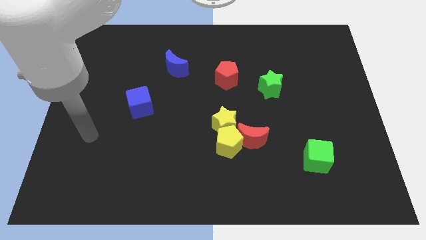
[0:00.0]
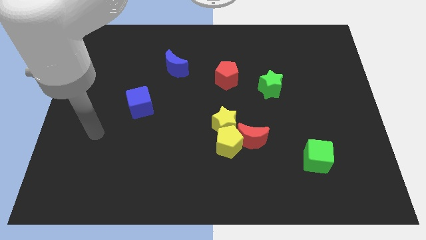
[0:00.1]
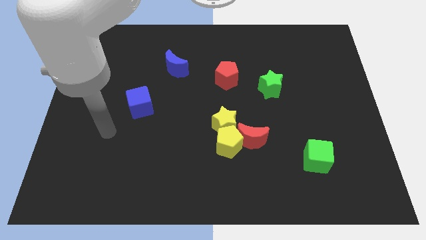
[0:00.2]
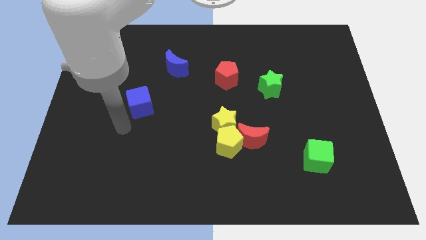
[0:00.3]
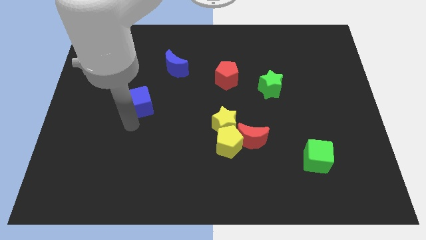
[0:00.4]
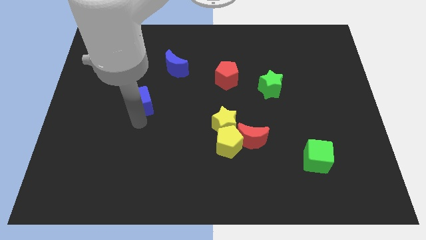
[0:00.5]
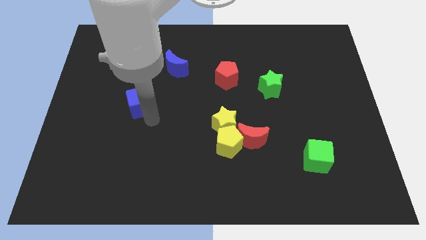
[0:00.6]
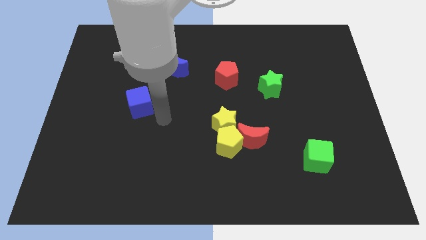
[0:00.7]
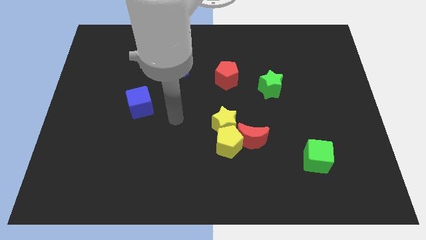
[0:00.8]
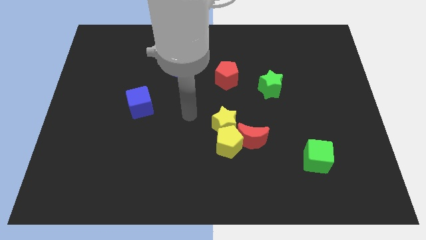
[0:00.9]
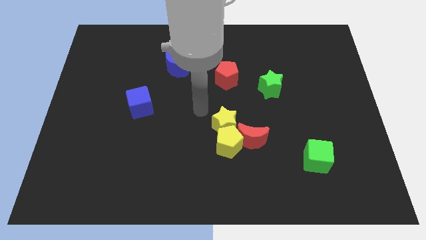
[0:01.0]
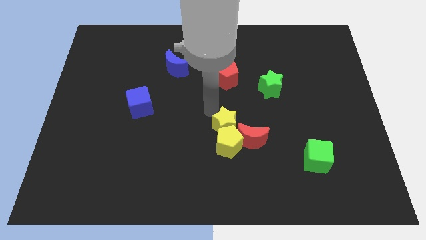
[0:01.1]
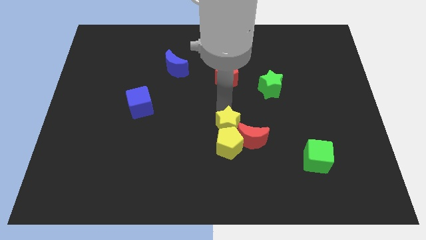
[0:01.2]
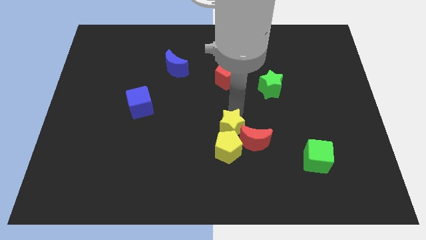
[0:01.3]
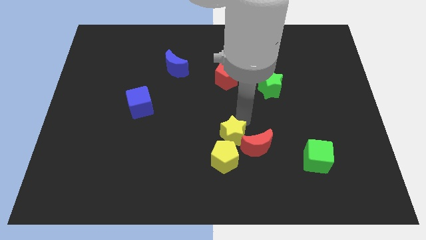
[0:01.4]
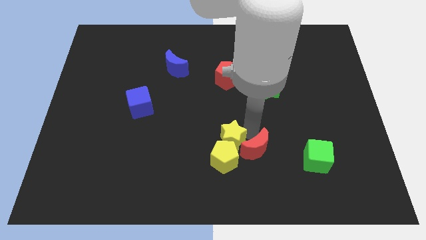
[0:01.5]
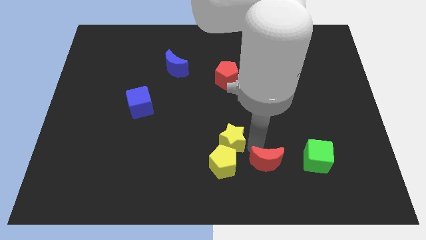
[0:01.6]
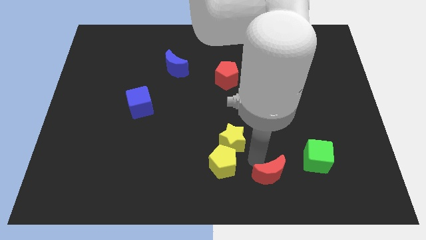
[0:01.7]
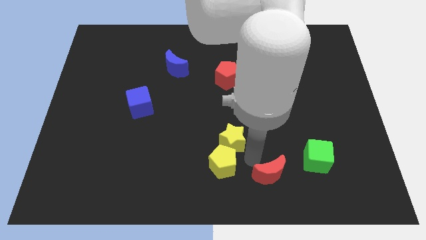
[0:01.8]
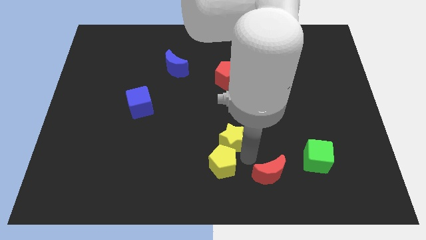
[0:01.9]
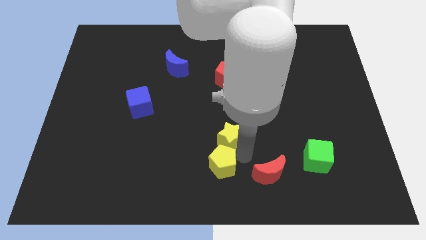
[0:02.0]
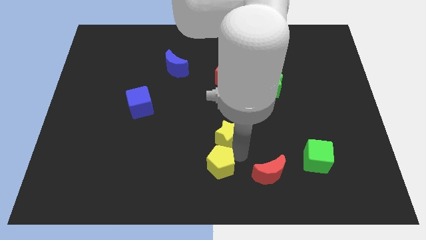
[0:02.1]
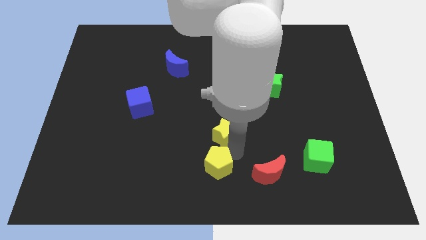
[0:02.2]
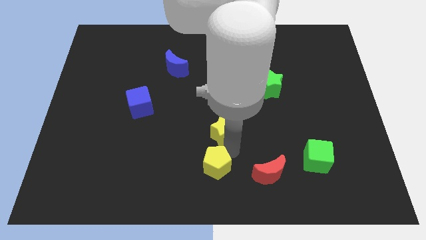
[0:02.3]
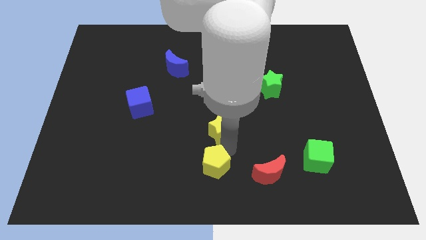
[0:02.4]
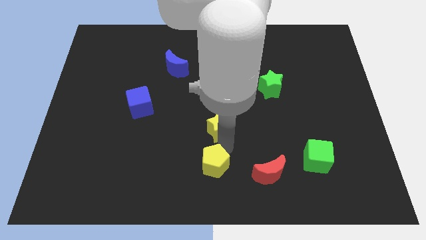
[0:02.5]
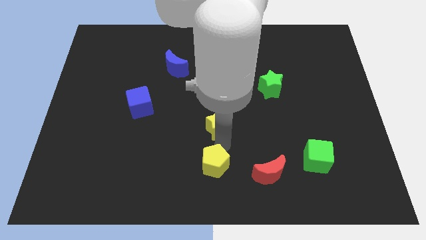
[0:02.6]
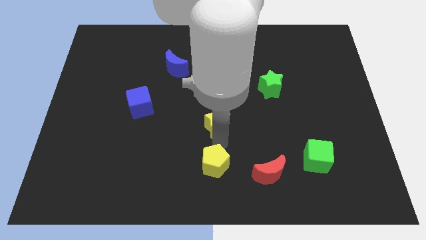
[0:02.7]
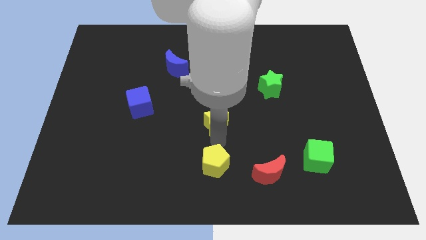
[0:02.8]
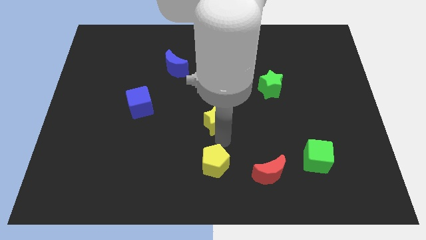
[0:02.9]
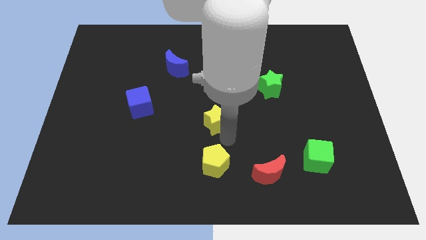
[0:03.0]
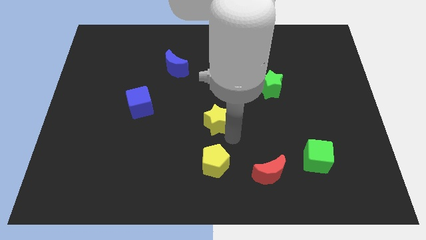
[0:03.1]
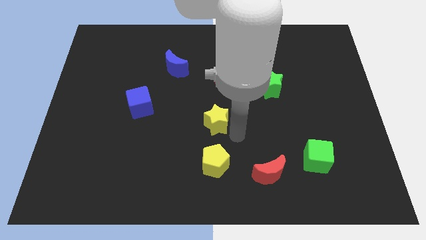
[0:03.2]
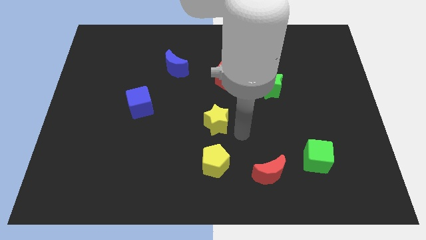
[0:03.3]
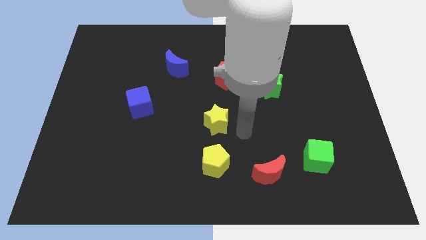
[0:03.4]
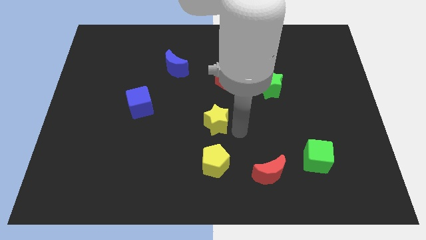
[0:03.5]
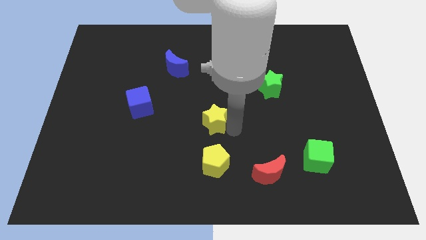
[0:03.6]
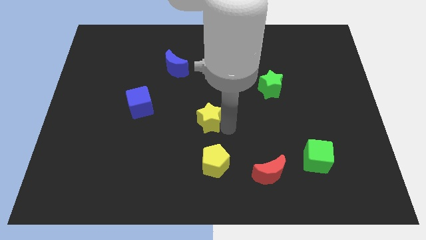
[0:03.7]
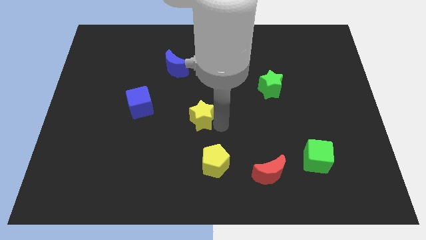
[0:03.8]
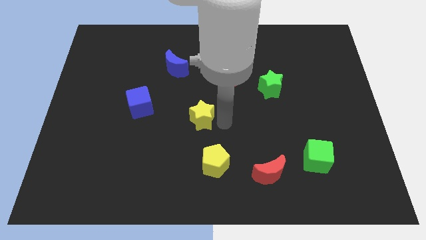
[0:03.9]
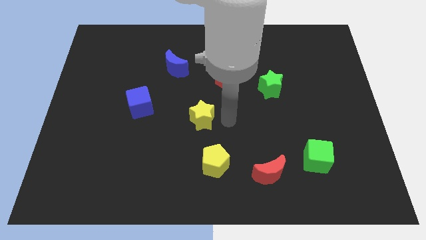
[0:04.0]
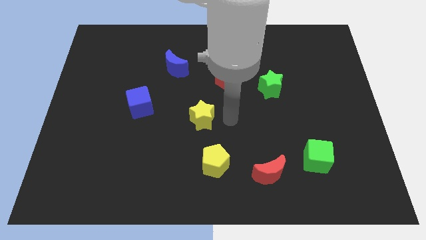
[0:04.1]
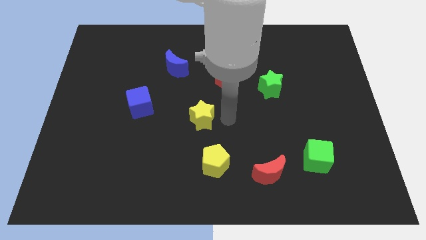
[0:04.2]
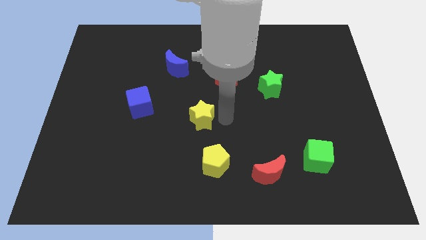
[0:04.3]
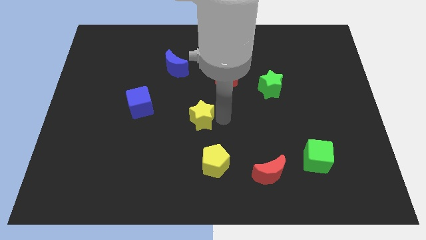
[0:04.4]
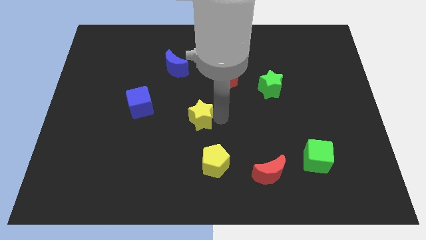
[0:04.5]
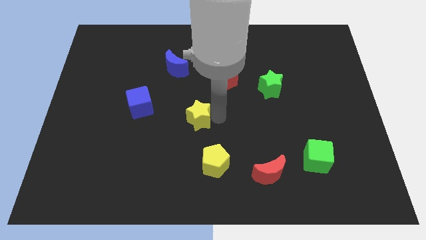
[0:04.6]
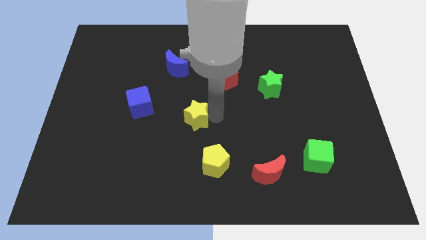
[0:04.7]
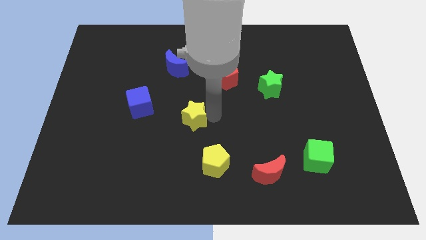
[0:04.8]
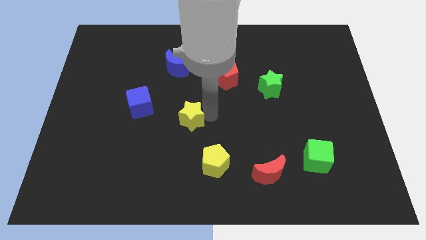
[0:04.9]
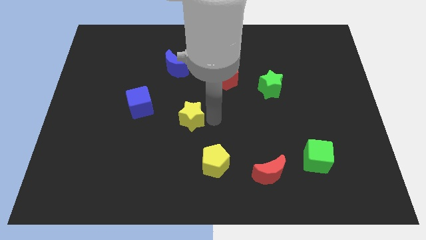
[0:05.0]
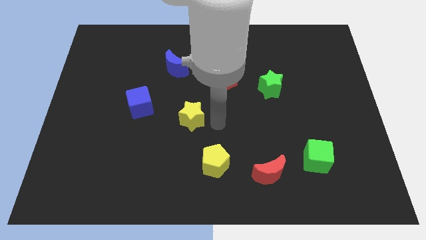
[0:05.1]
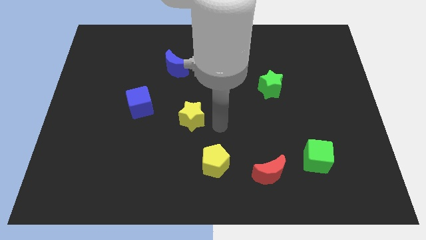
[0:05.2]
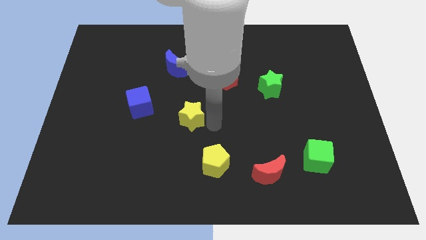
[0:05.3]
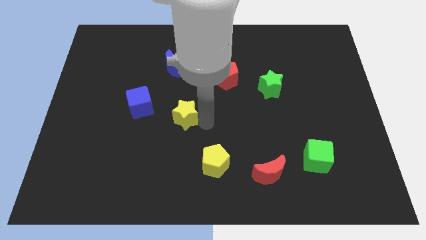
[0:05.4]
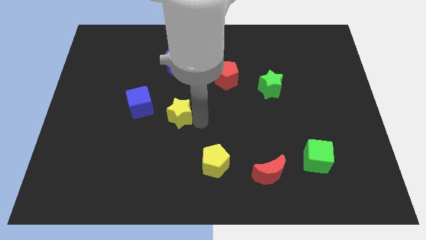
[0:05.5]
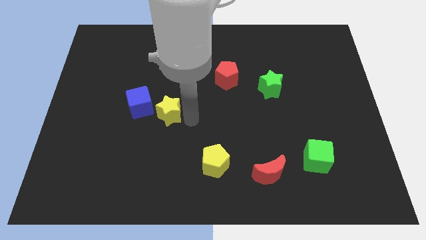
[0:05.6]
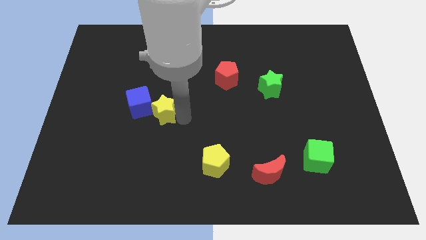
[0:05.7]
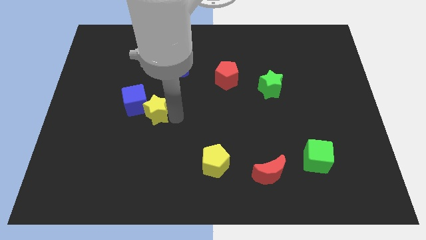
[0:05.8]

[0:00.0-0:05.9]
move the yellow star next to the blue cube

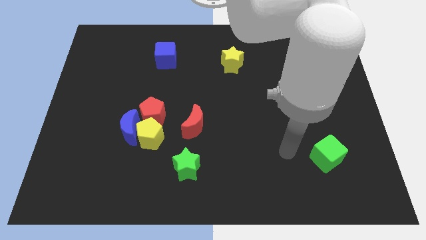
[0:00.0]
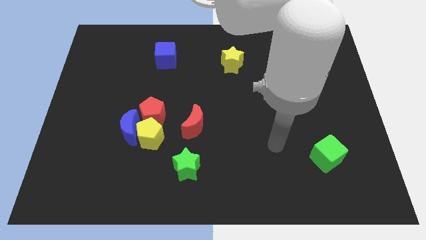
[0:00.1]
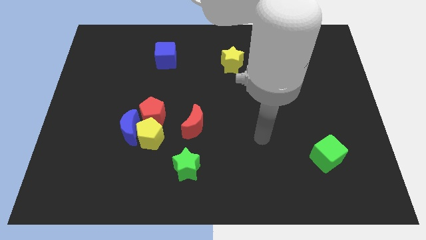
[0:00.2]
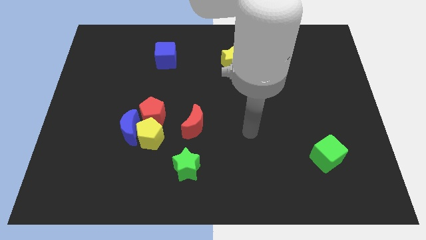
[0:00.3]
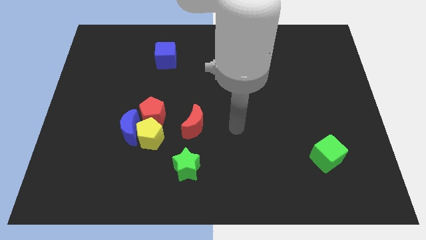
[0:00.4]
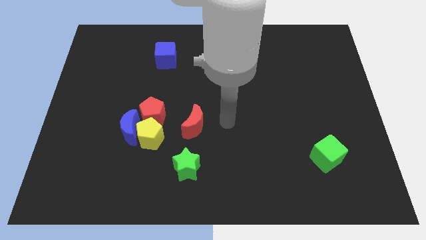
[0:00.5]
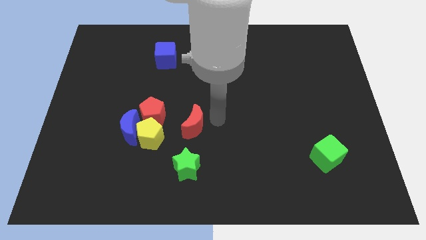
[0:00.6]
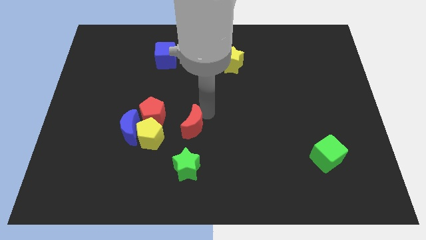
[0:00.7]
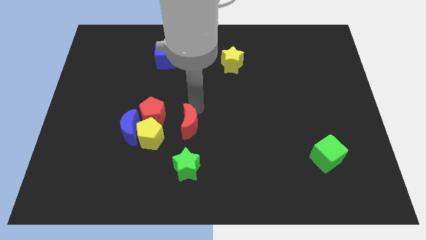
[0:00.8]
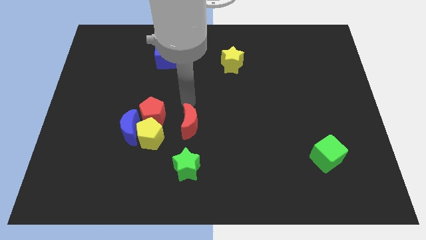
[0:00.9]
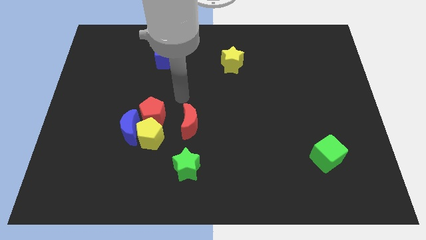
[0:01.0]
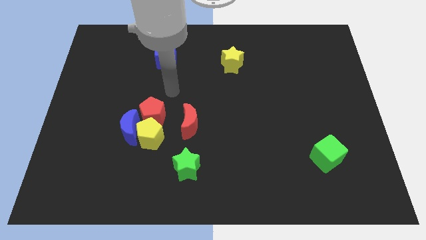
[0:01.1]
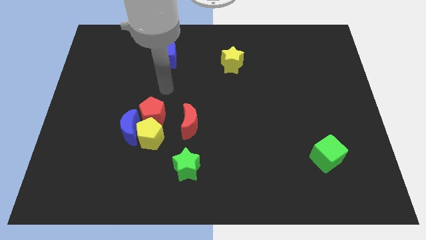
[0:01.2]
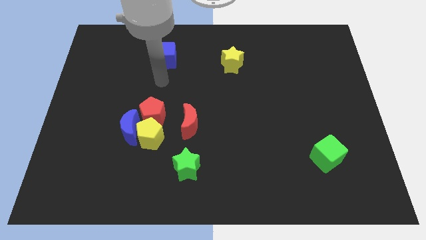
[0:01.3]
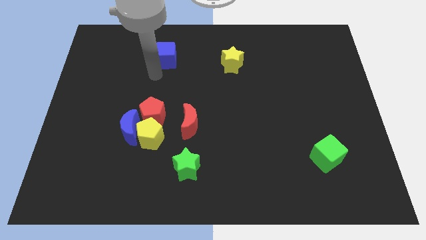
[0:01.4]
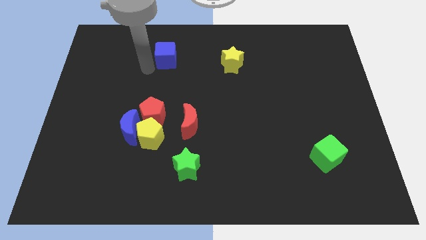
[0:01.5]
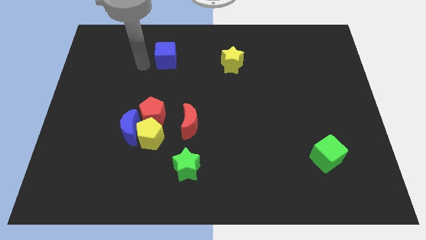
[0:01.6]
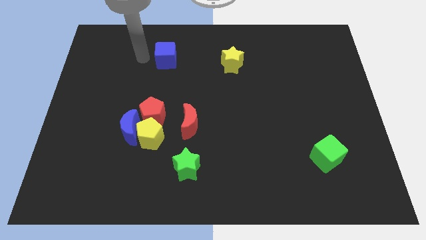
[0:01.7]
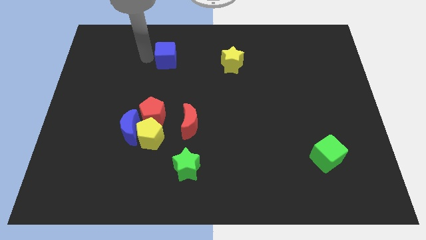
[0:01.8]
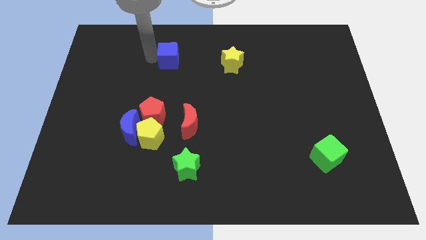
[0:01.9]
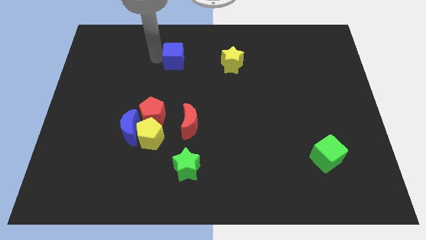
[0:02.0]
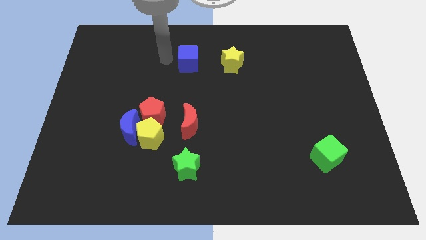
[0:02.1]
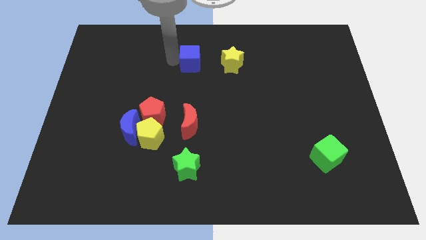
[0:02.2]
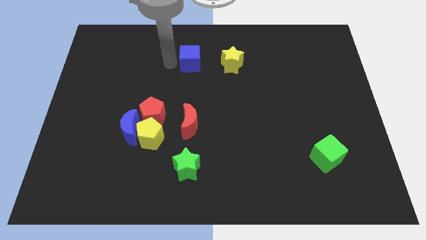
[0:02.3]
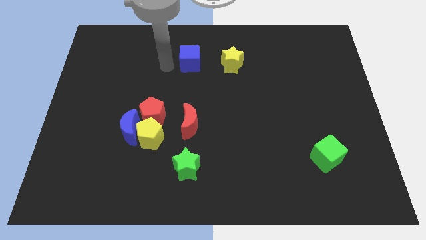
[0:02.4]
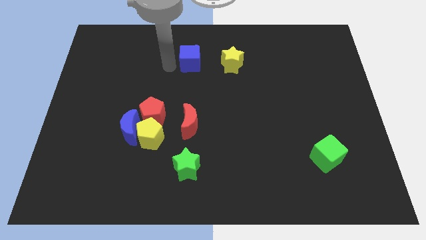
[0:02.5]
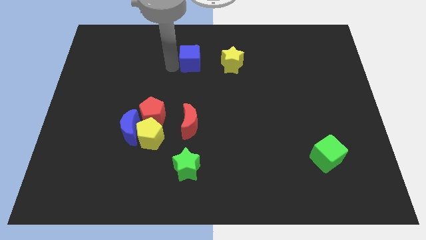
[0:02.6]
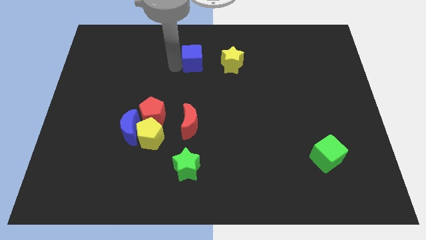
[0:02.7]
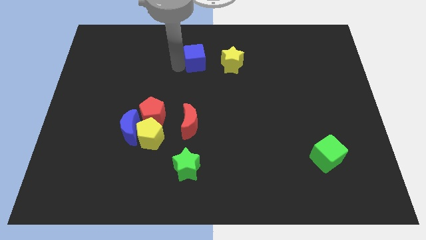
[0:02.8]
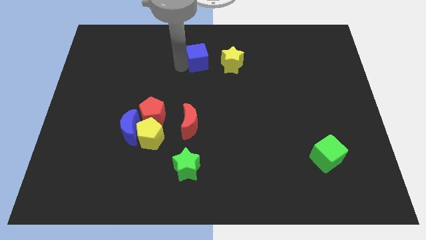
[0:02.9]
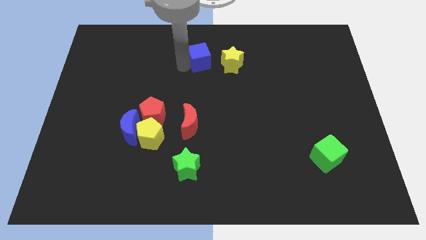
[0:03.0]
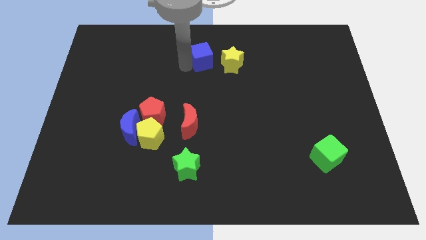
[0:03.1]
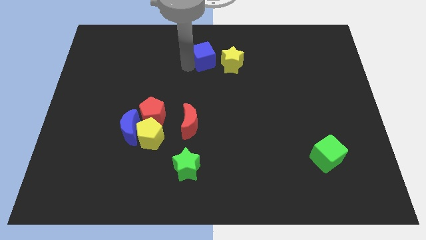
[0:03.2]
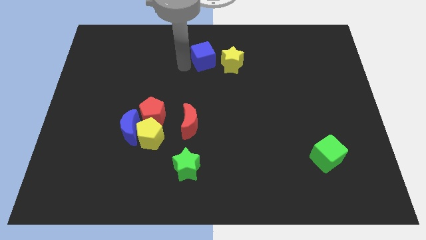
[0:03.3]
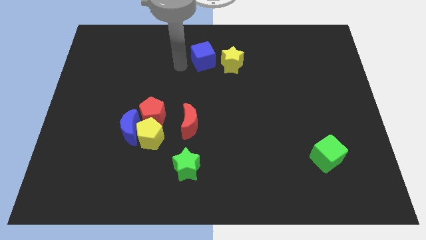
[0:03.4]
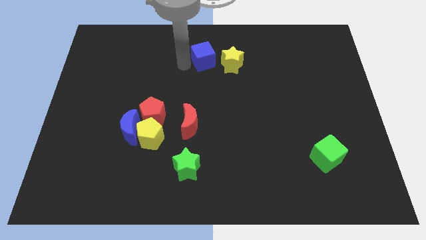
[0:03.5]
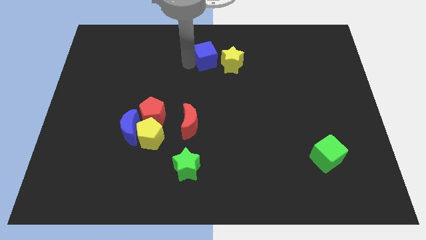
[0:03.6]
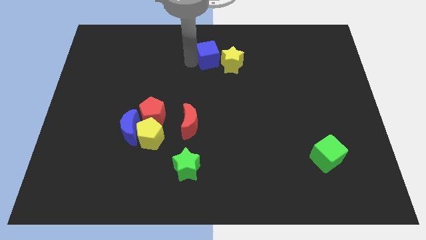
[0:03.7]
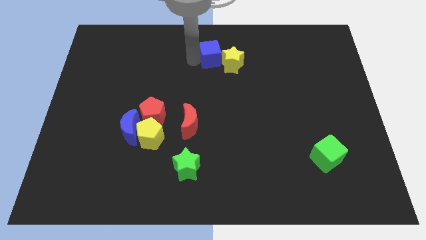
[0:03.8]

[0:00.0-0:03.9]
push the blue cube close to the yellow star
